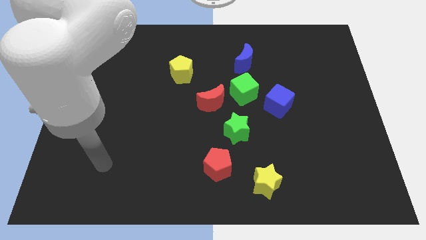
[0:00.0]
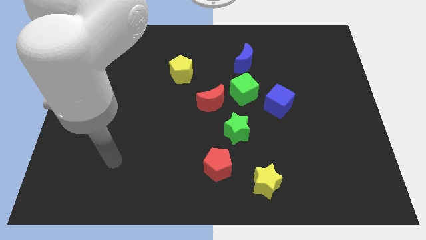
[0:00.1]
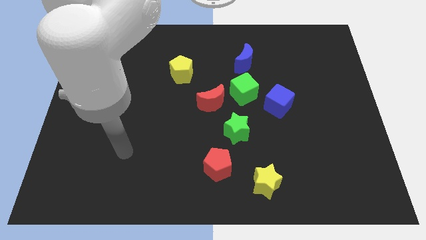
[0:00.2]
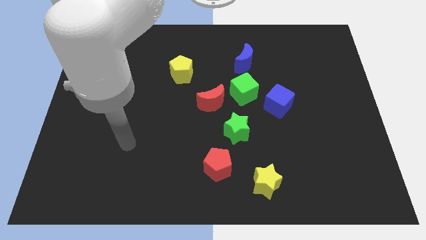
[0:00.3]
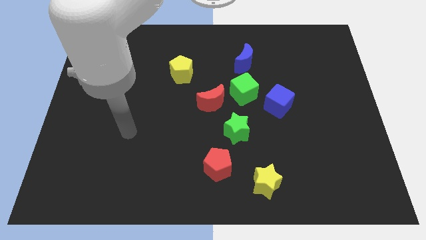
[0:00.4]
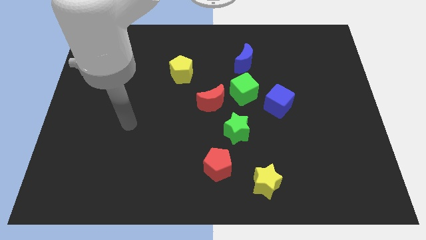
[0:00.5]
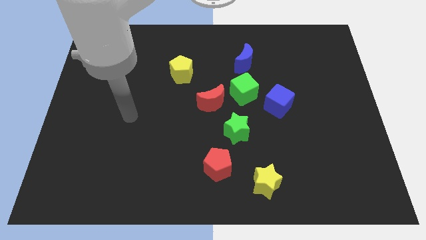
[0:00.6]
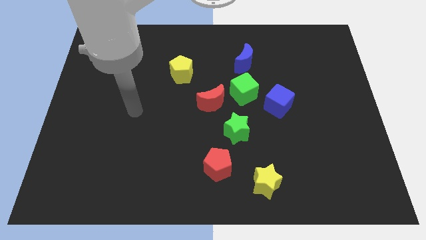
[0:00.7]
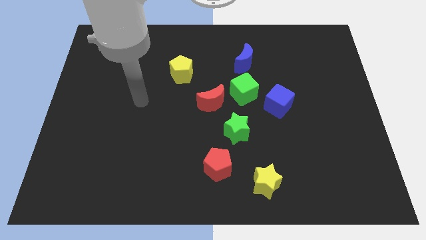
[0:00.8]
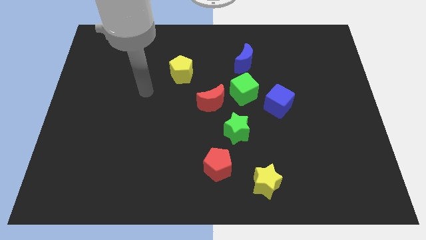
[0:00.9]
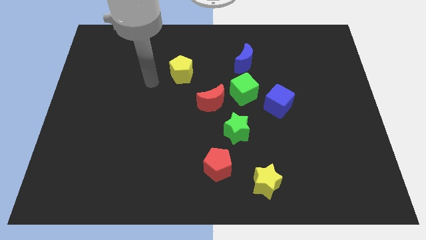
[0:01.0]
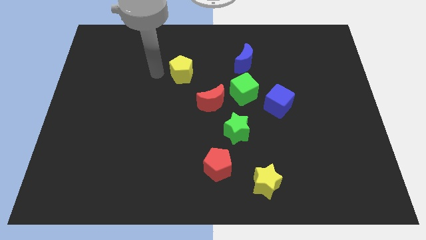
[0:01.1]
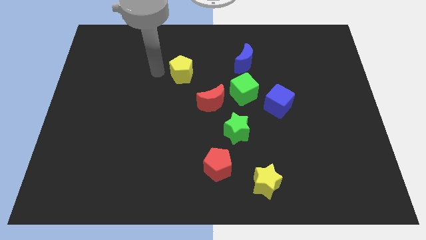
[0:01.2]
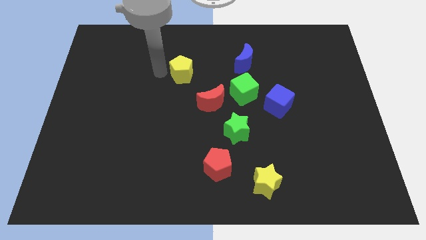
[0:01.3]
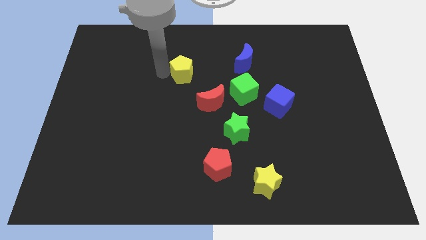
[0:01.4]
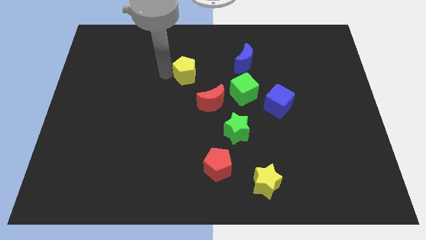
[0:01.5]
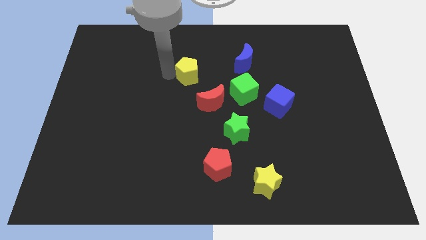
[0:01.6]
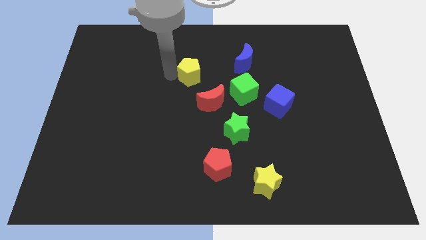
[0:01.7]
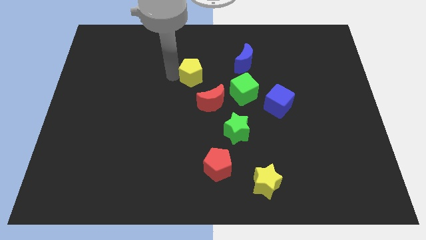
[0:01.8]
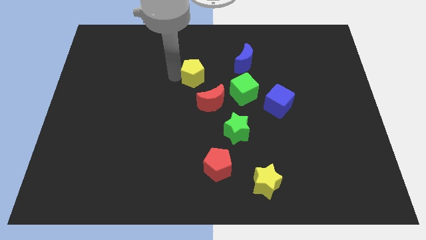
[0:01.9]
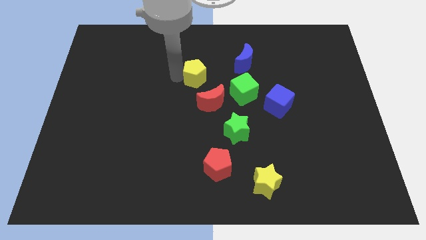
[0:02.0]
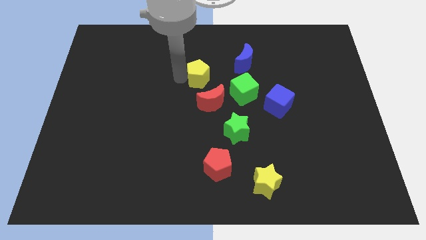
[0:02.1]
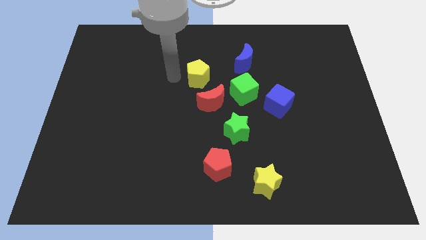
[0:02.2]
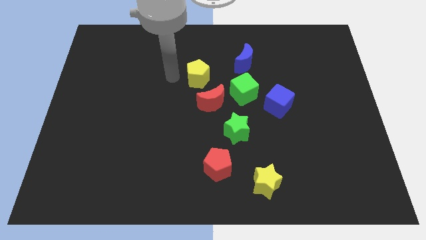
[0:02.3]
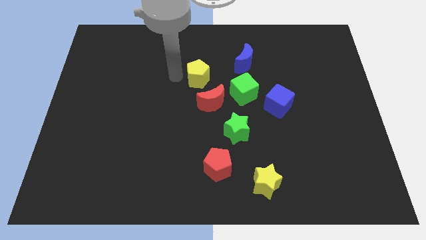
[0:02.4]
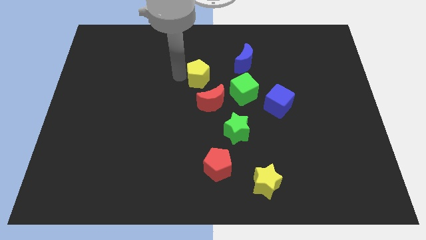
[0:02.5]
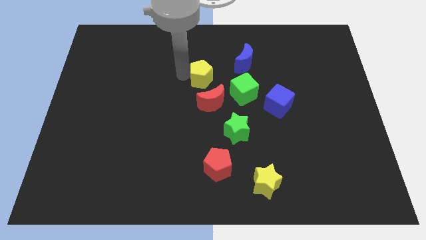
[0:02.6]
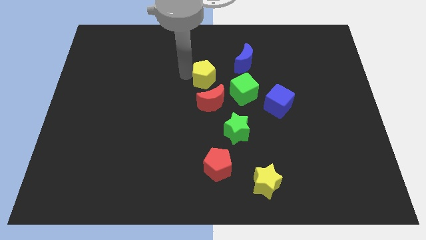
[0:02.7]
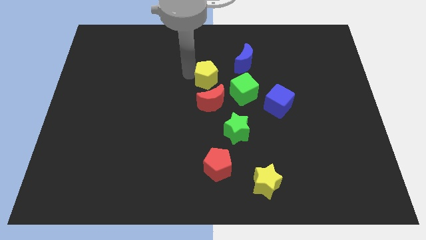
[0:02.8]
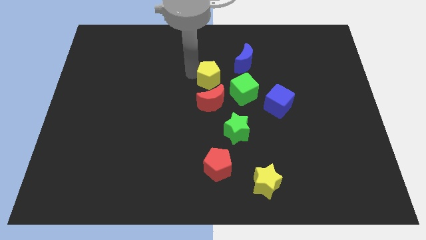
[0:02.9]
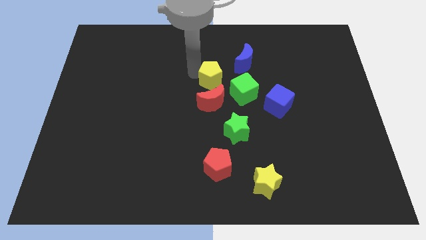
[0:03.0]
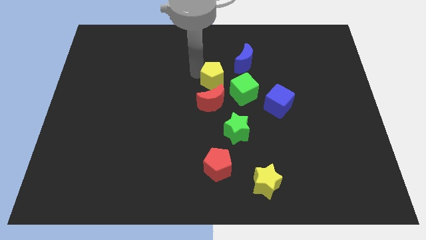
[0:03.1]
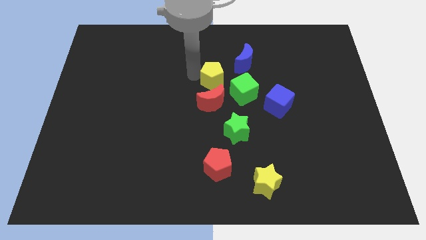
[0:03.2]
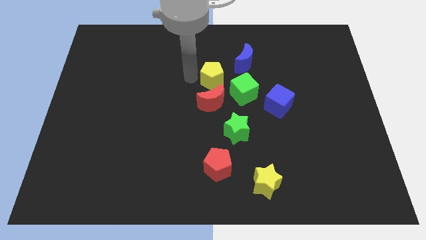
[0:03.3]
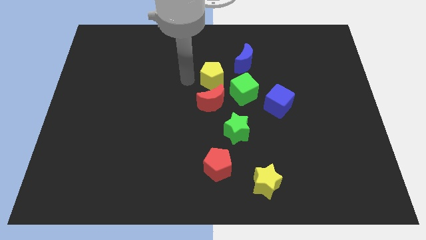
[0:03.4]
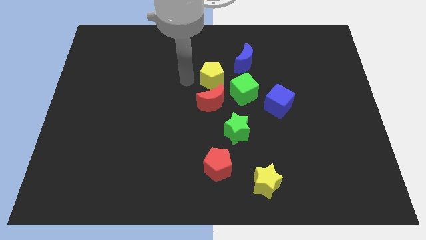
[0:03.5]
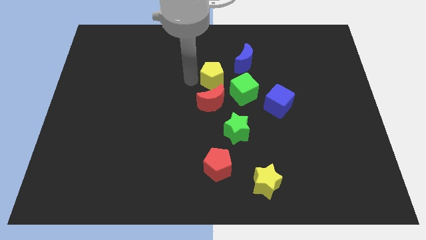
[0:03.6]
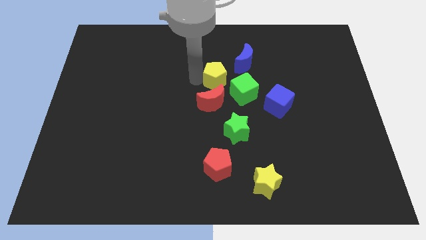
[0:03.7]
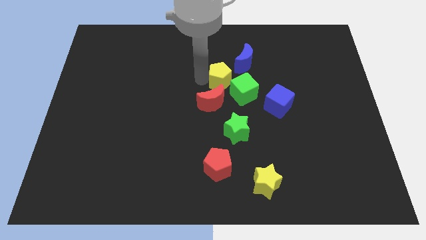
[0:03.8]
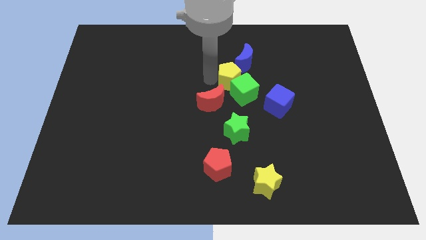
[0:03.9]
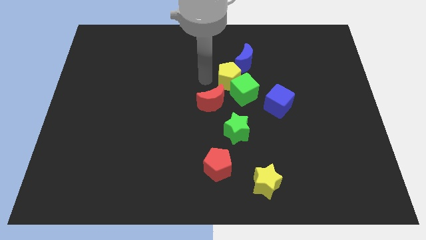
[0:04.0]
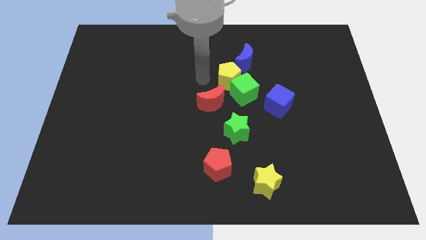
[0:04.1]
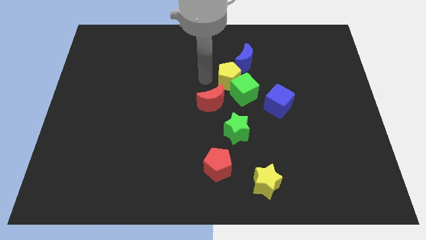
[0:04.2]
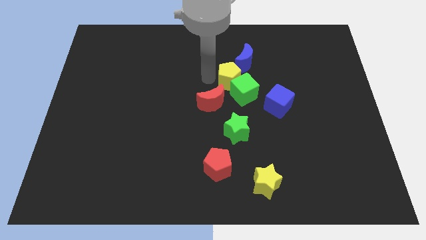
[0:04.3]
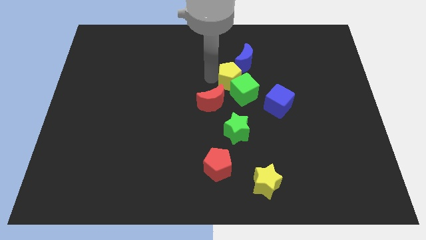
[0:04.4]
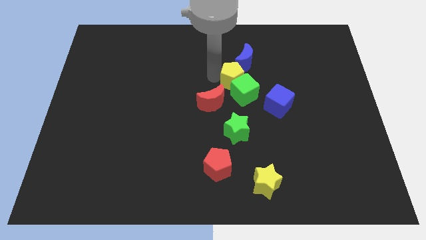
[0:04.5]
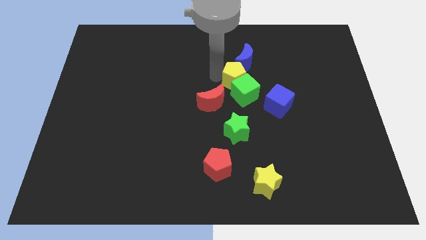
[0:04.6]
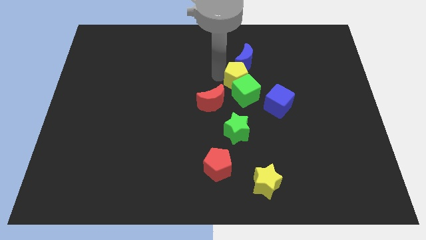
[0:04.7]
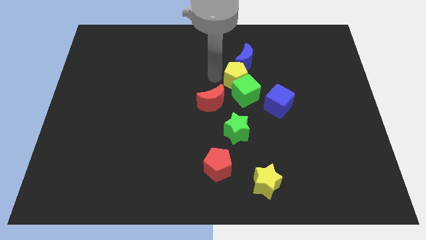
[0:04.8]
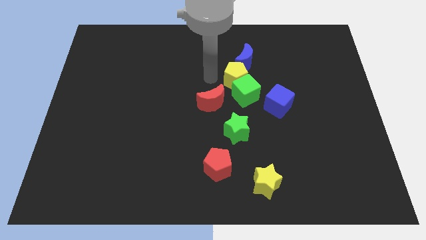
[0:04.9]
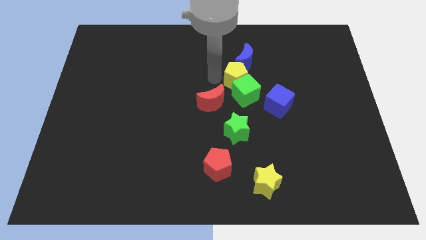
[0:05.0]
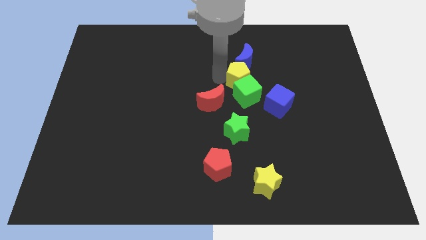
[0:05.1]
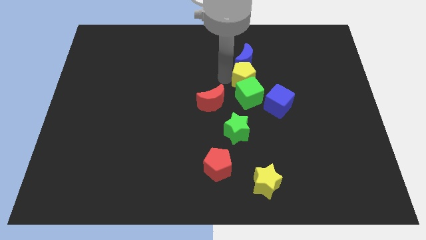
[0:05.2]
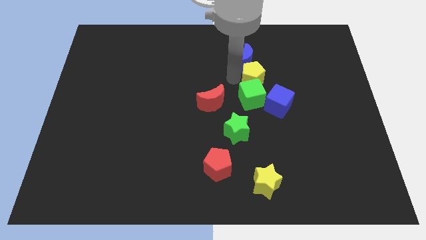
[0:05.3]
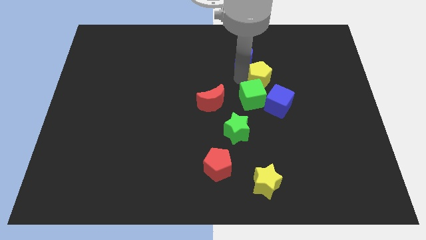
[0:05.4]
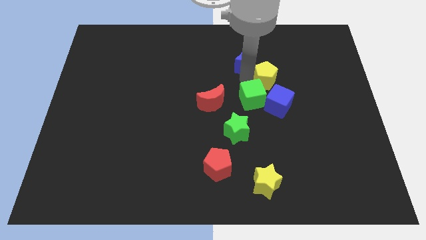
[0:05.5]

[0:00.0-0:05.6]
move the yellow pentagon to the right

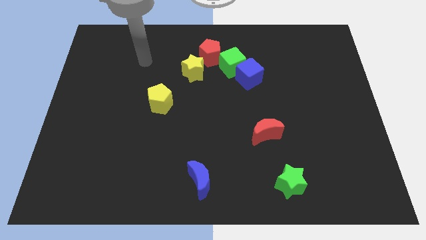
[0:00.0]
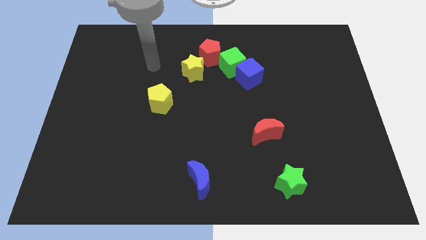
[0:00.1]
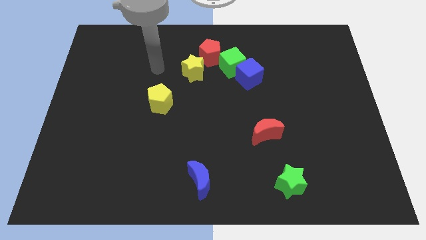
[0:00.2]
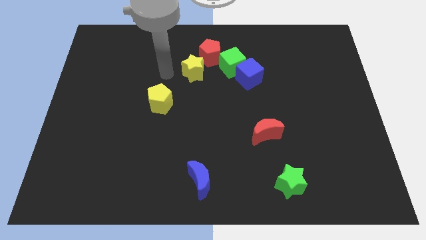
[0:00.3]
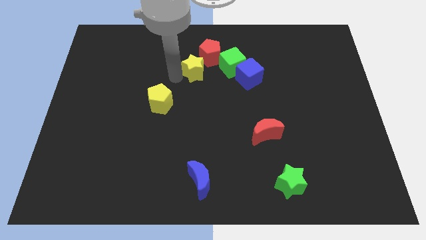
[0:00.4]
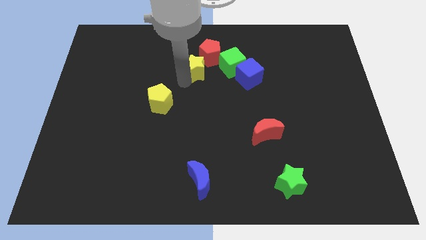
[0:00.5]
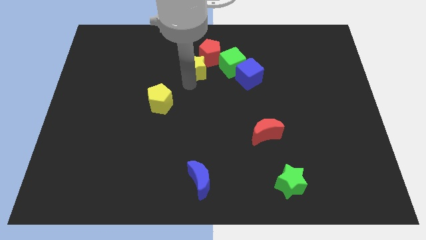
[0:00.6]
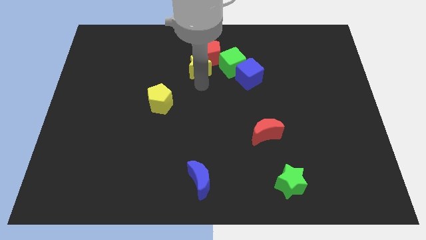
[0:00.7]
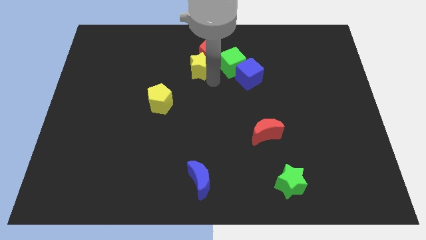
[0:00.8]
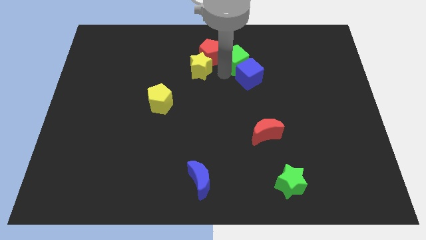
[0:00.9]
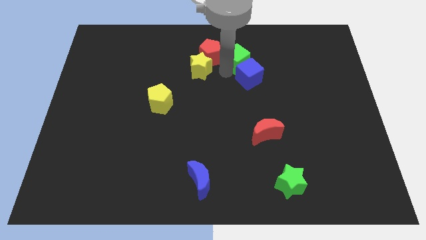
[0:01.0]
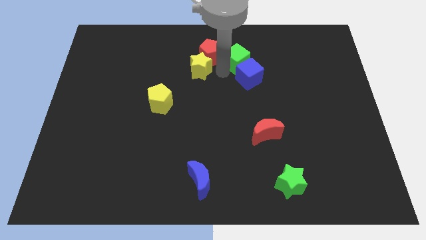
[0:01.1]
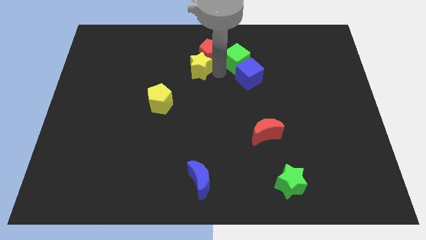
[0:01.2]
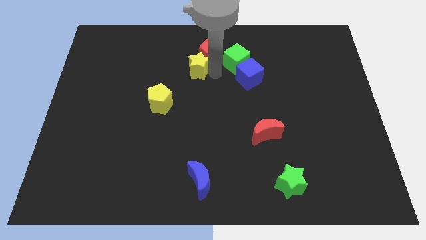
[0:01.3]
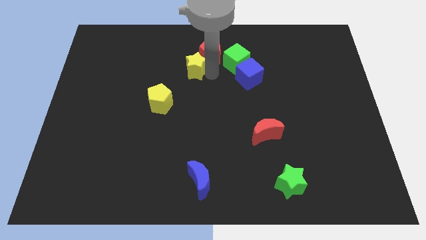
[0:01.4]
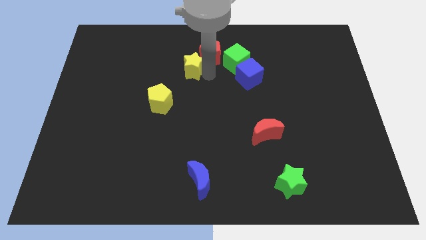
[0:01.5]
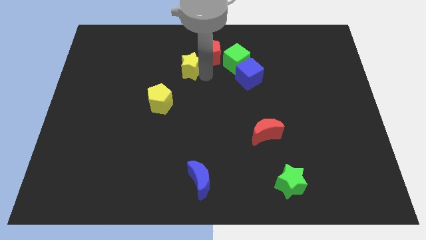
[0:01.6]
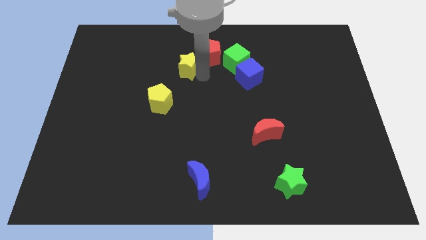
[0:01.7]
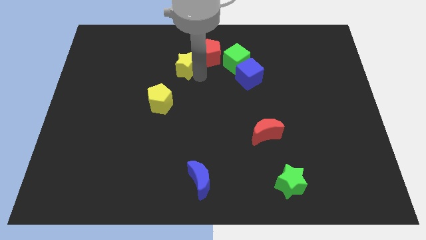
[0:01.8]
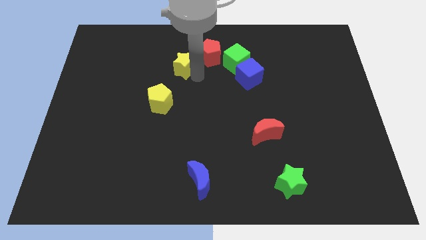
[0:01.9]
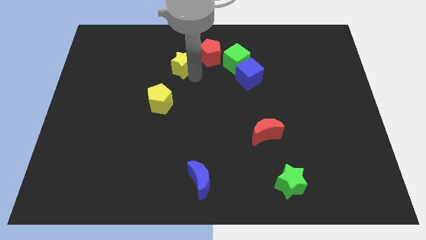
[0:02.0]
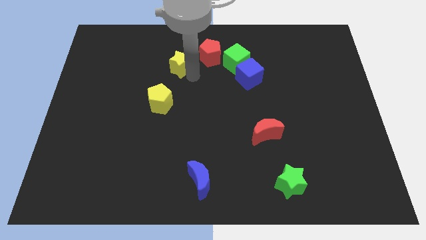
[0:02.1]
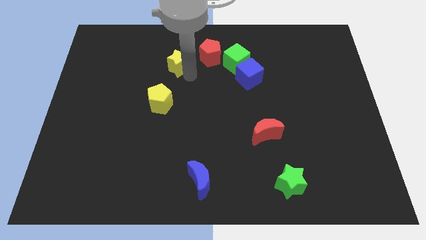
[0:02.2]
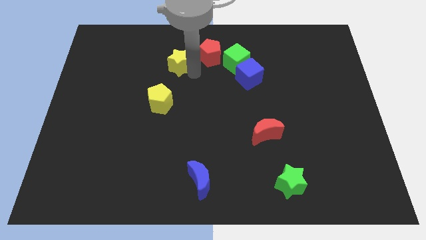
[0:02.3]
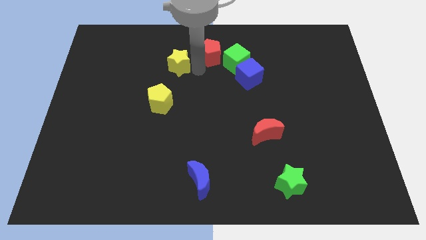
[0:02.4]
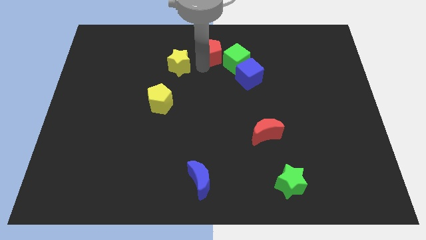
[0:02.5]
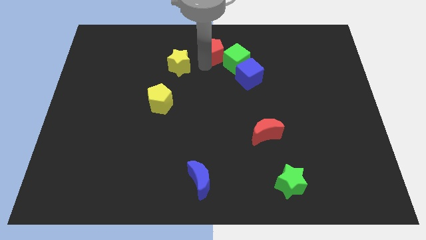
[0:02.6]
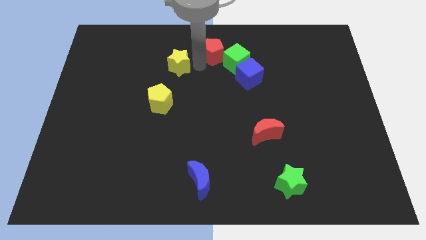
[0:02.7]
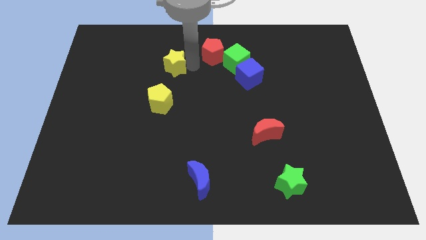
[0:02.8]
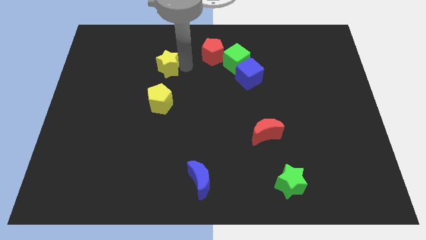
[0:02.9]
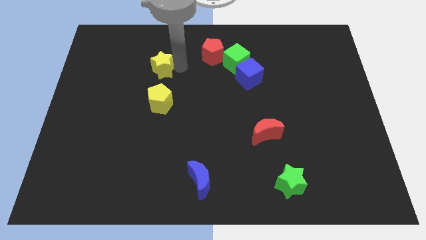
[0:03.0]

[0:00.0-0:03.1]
slightly push the yellow star to the left
